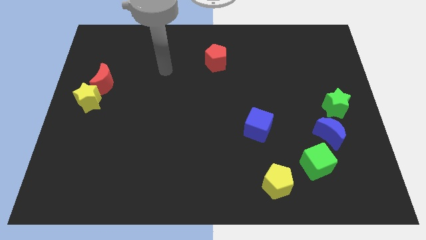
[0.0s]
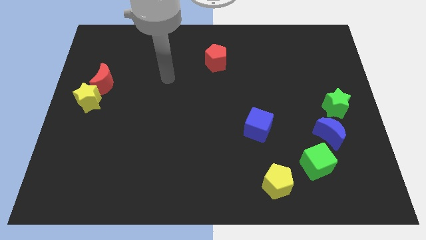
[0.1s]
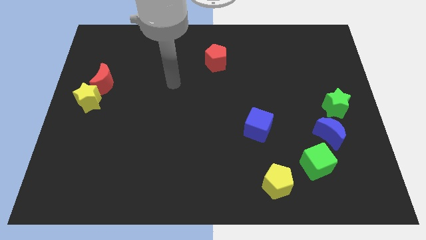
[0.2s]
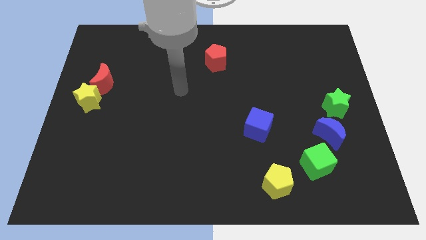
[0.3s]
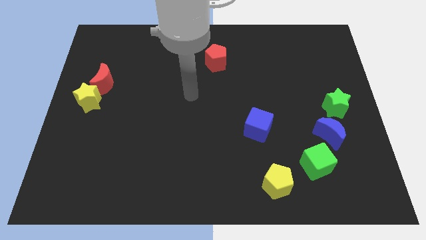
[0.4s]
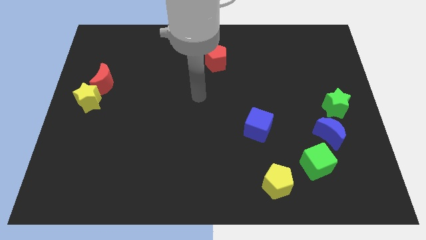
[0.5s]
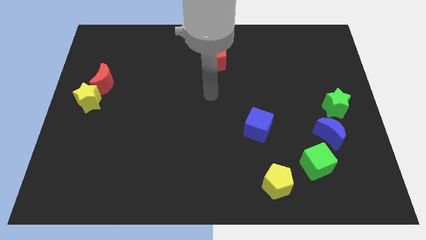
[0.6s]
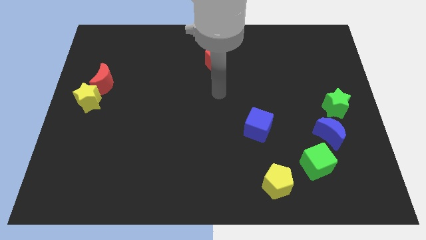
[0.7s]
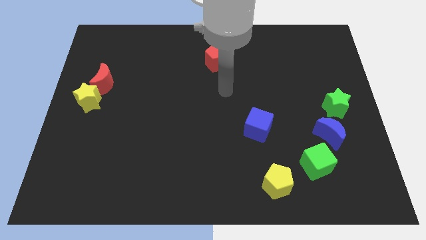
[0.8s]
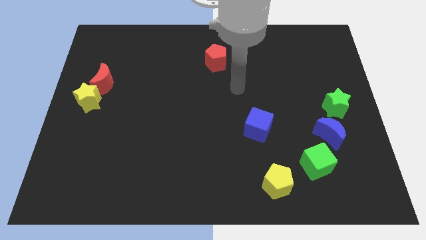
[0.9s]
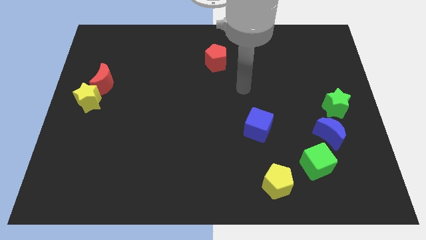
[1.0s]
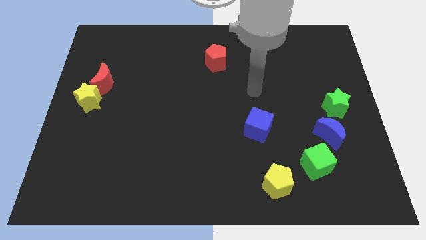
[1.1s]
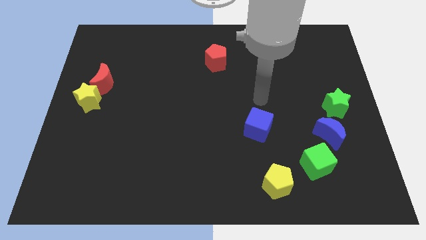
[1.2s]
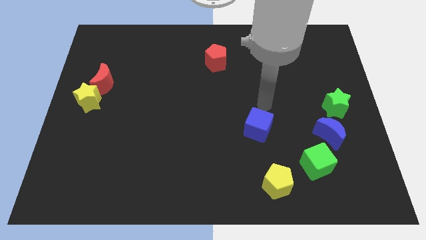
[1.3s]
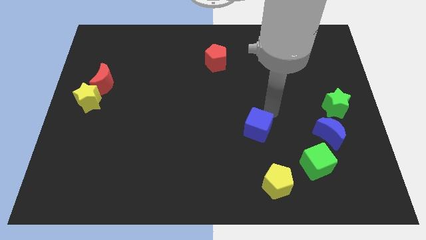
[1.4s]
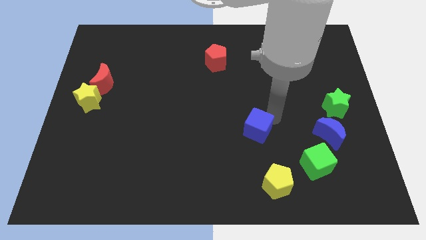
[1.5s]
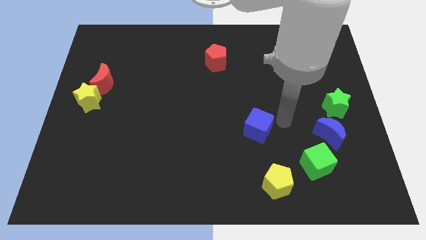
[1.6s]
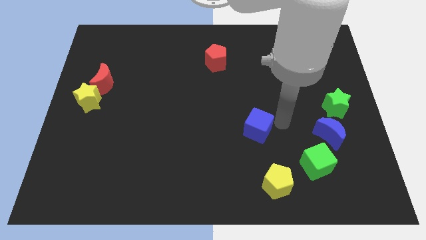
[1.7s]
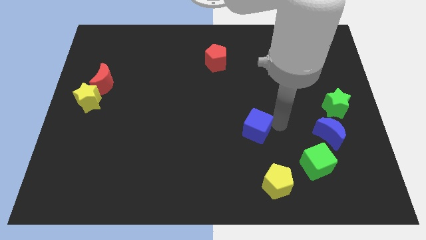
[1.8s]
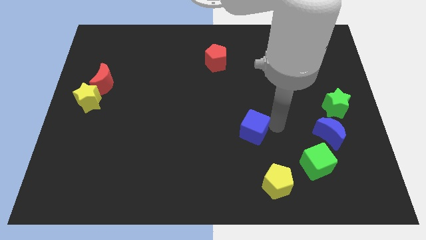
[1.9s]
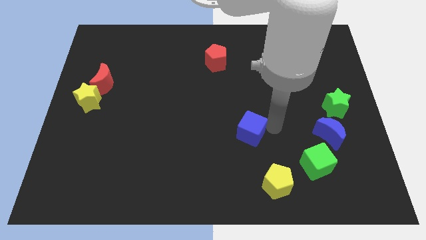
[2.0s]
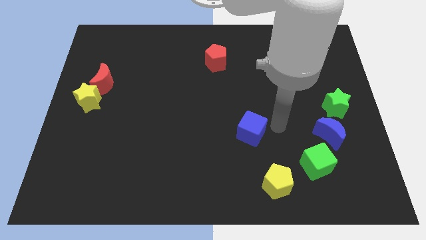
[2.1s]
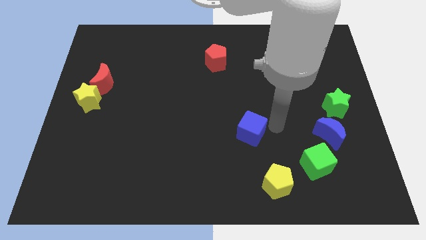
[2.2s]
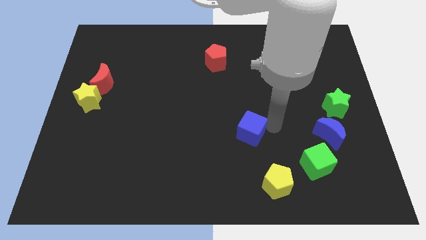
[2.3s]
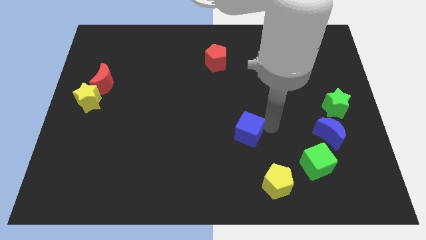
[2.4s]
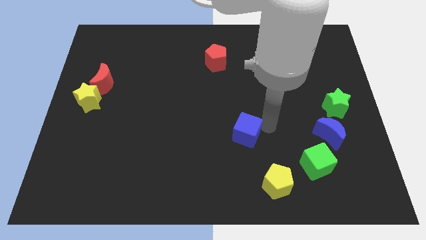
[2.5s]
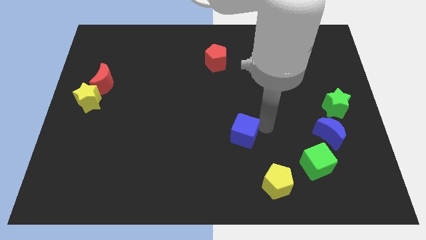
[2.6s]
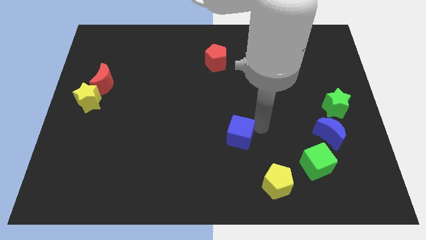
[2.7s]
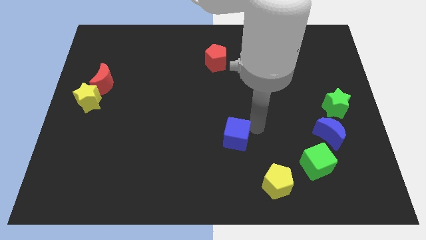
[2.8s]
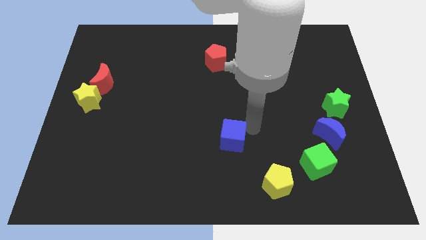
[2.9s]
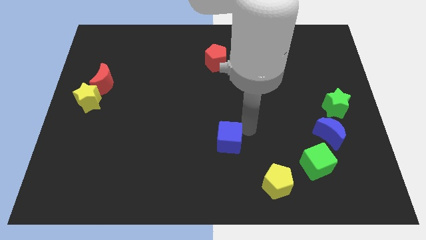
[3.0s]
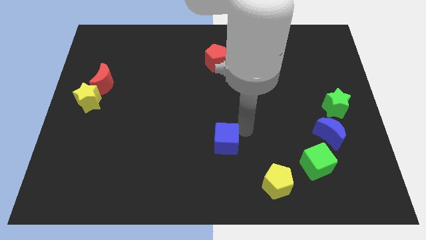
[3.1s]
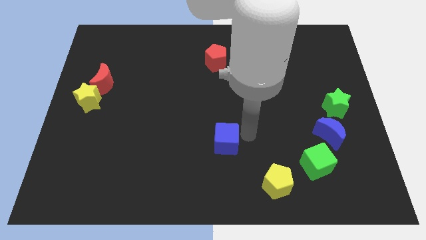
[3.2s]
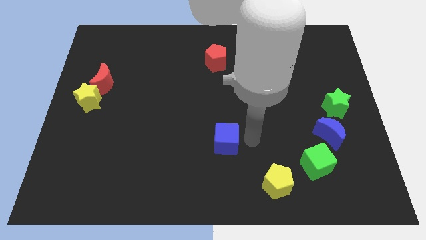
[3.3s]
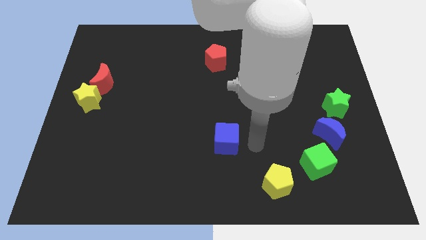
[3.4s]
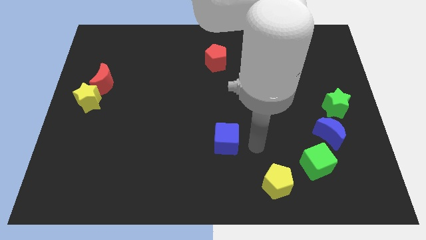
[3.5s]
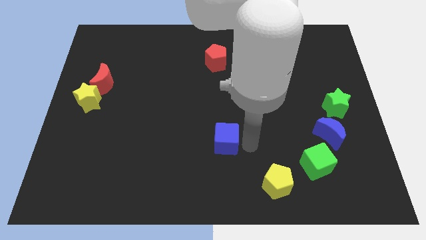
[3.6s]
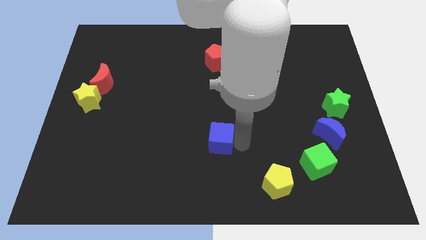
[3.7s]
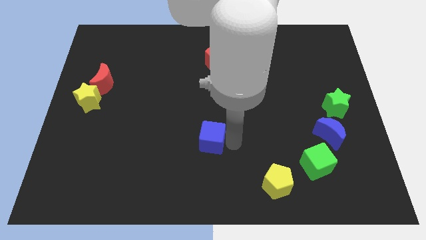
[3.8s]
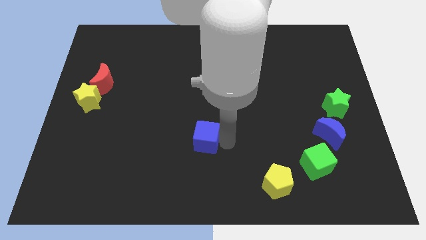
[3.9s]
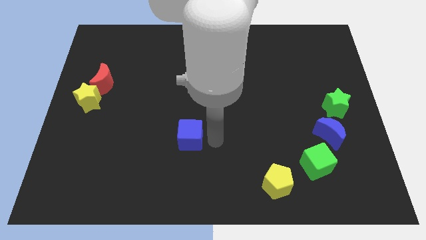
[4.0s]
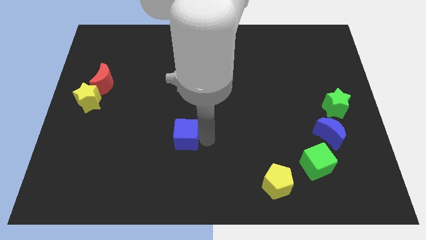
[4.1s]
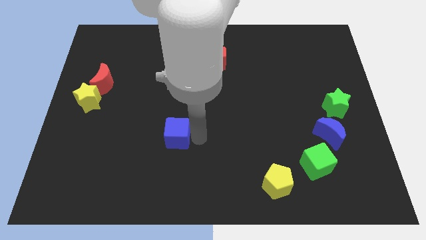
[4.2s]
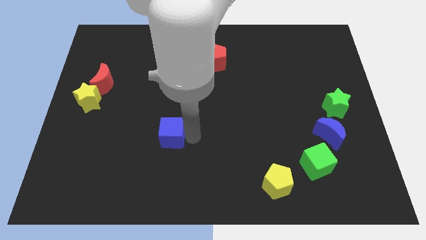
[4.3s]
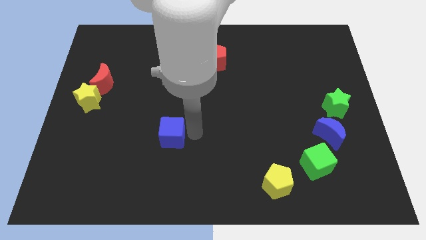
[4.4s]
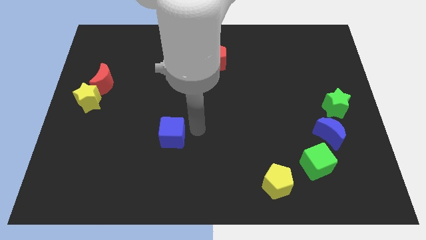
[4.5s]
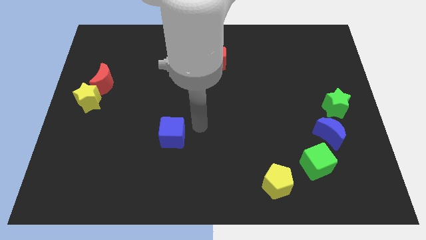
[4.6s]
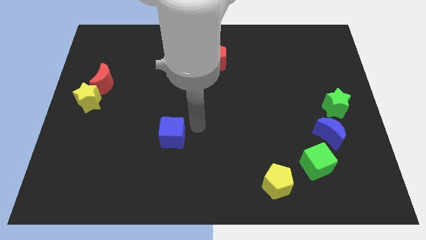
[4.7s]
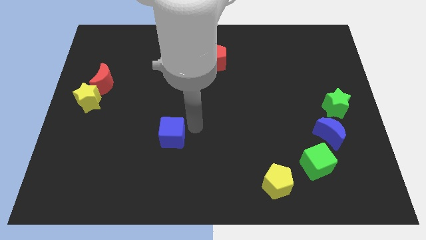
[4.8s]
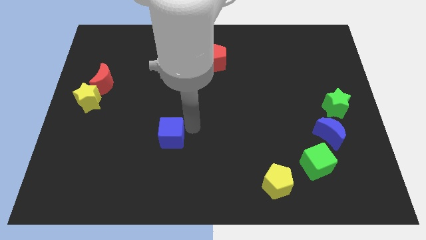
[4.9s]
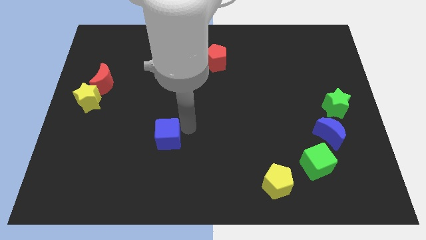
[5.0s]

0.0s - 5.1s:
slide the blue cube to the left

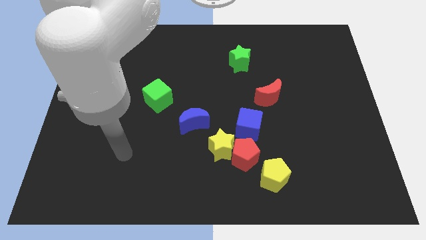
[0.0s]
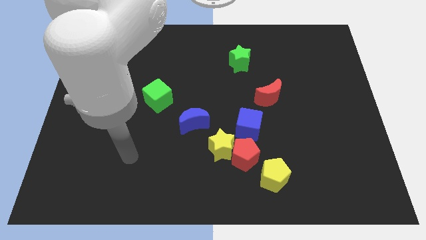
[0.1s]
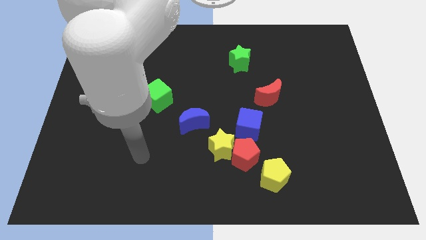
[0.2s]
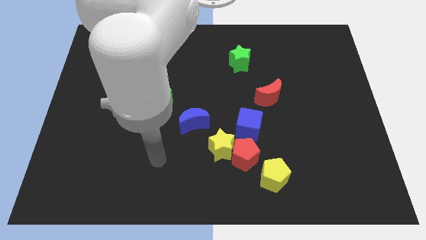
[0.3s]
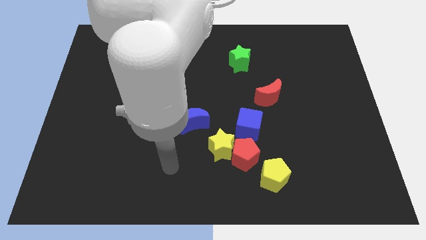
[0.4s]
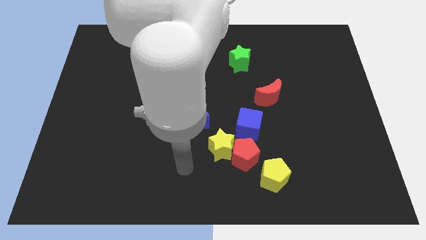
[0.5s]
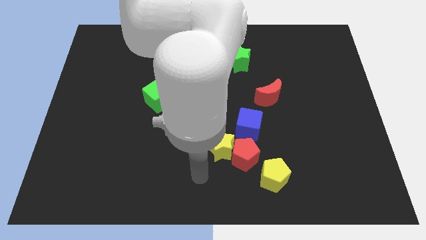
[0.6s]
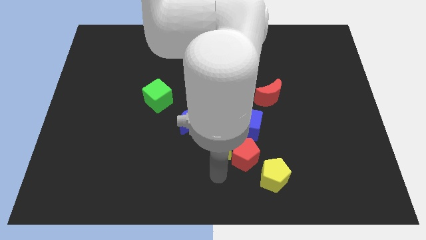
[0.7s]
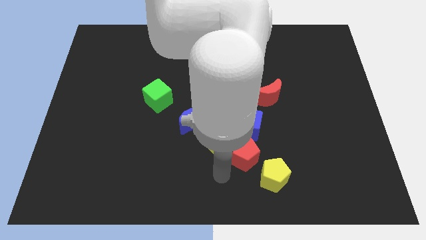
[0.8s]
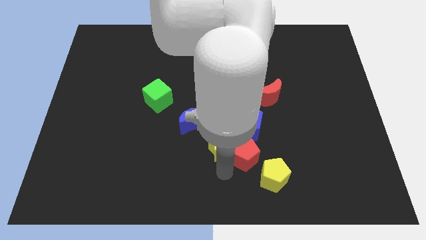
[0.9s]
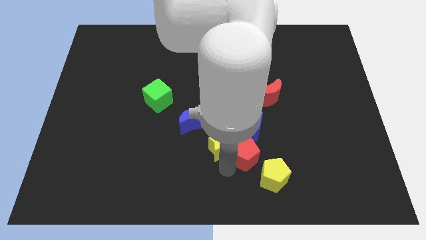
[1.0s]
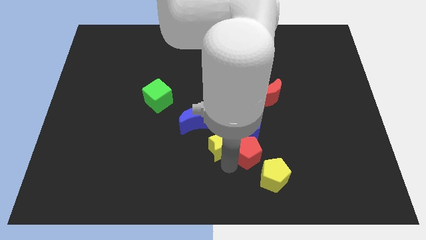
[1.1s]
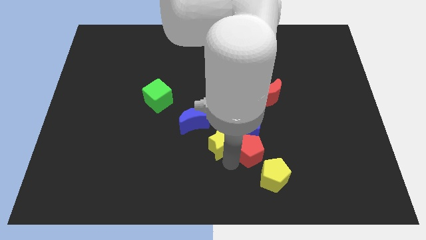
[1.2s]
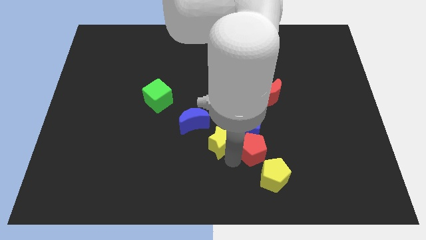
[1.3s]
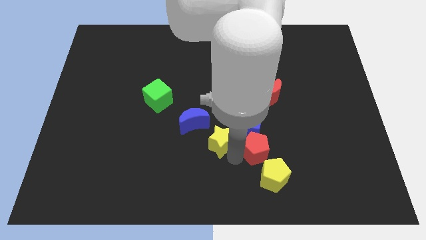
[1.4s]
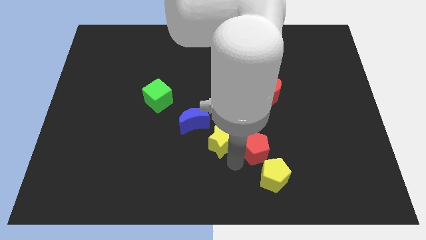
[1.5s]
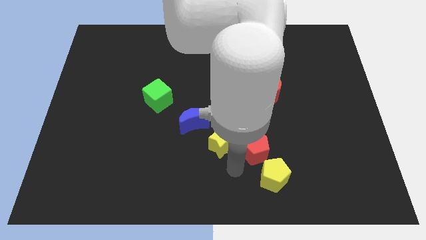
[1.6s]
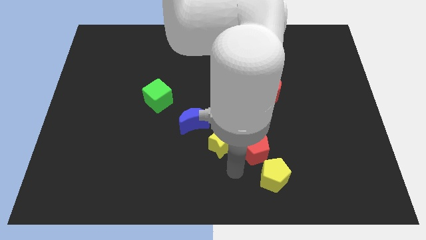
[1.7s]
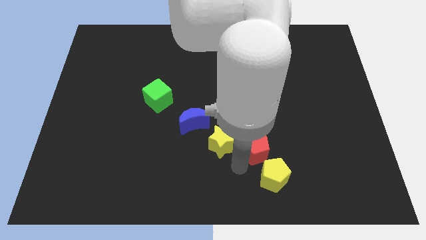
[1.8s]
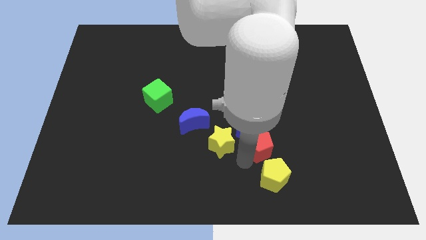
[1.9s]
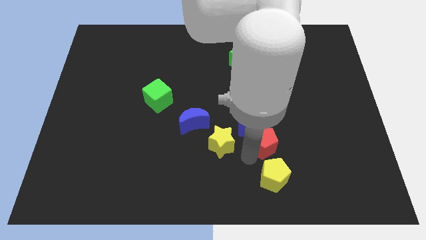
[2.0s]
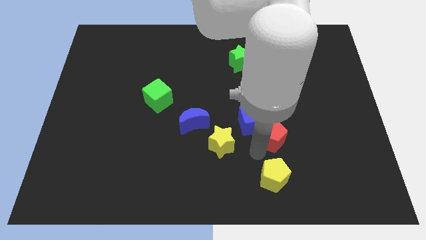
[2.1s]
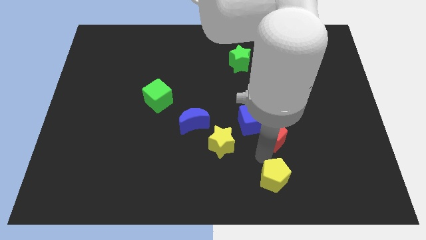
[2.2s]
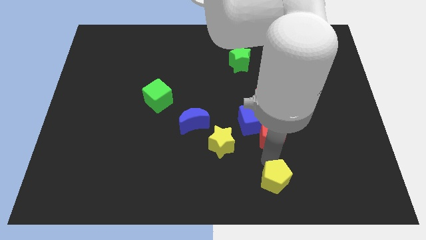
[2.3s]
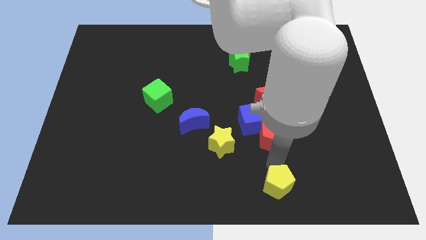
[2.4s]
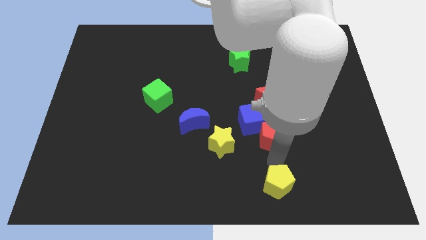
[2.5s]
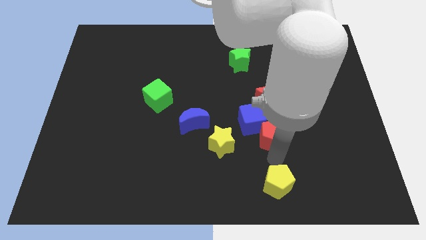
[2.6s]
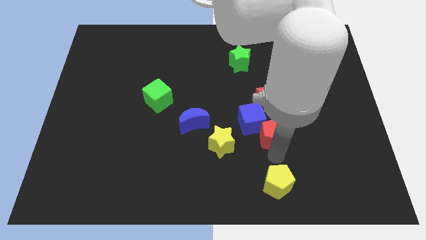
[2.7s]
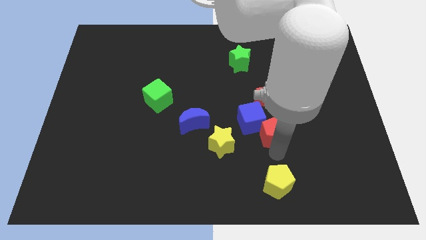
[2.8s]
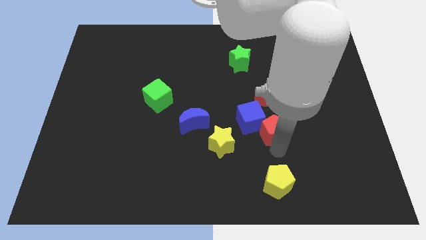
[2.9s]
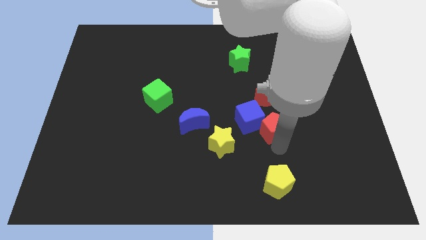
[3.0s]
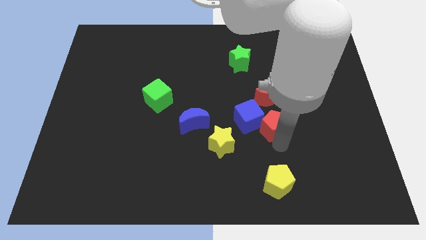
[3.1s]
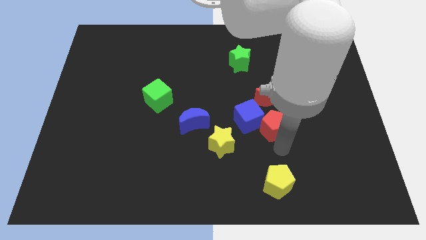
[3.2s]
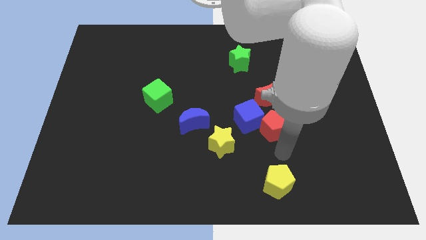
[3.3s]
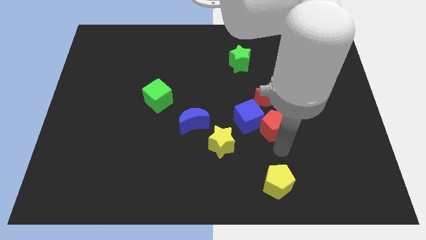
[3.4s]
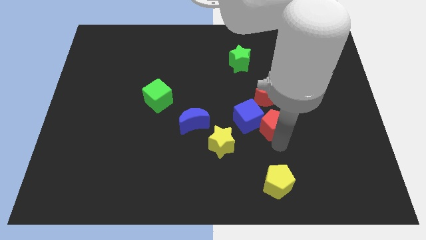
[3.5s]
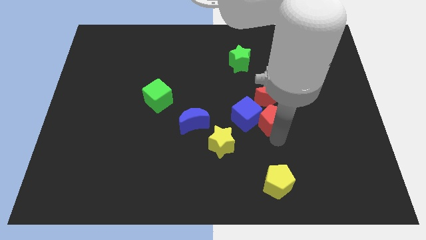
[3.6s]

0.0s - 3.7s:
slightly push the red pentagon up

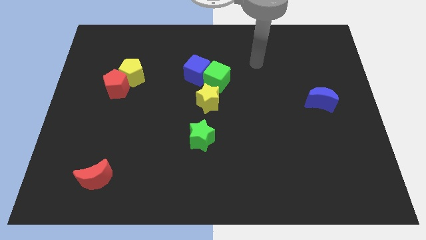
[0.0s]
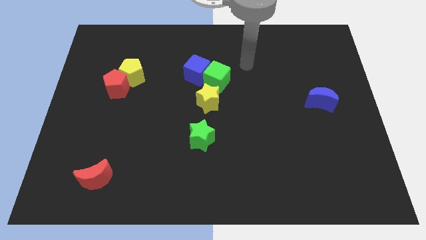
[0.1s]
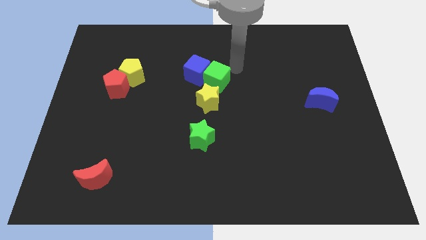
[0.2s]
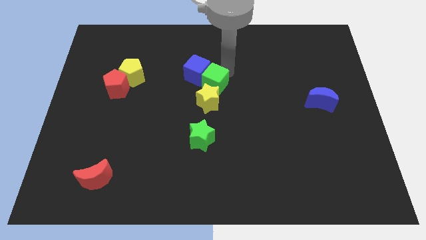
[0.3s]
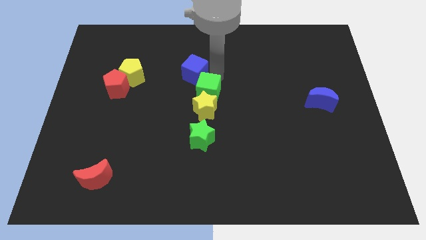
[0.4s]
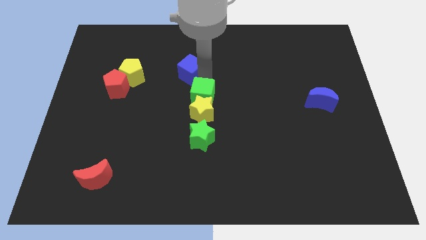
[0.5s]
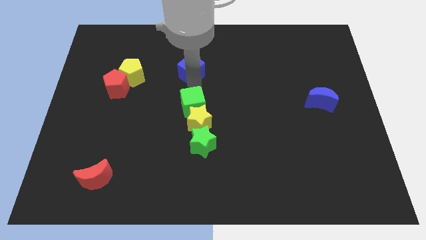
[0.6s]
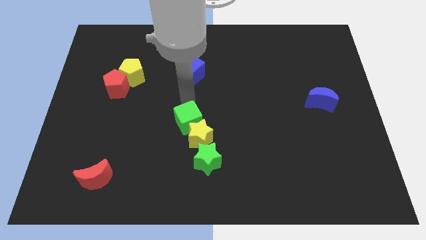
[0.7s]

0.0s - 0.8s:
slide the yellow star slightly down
